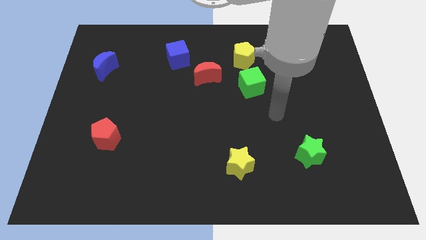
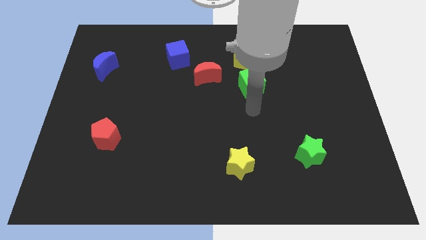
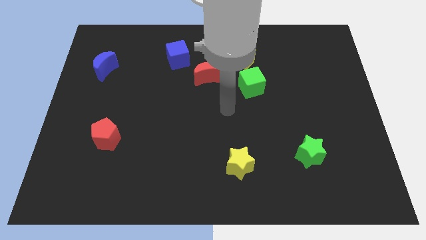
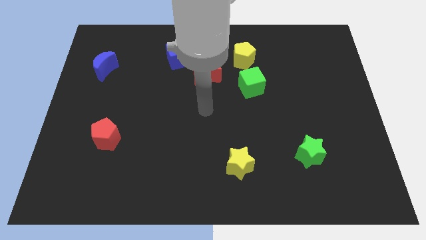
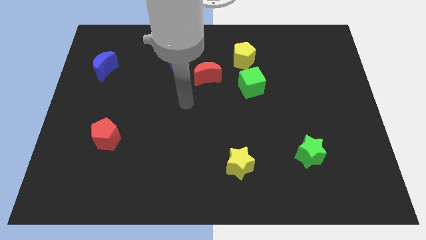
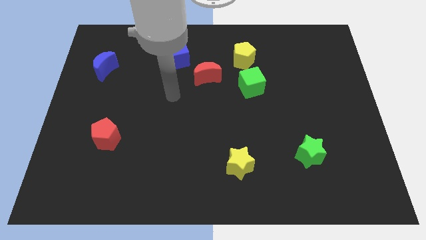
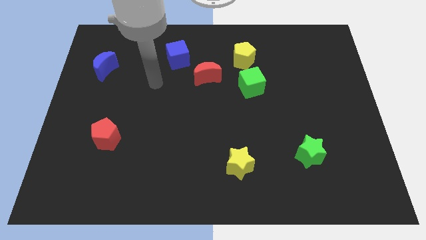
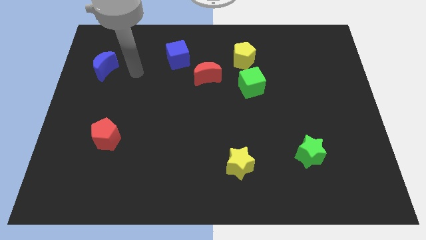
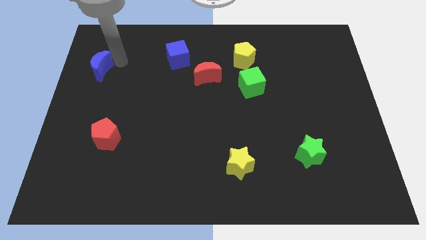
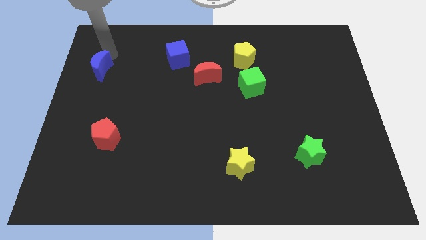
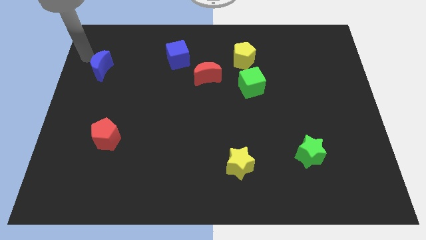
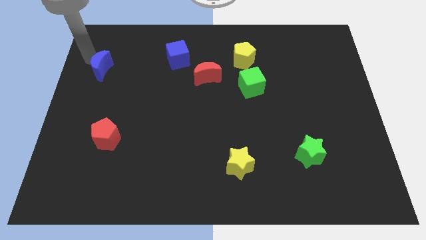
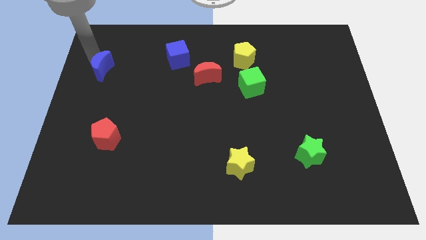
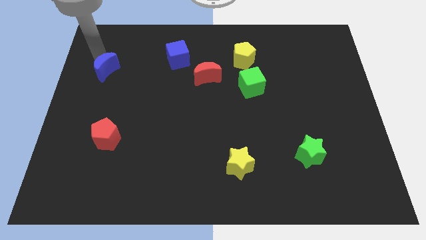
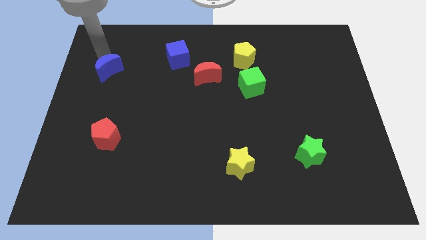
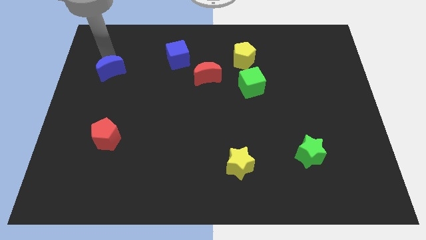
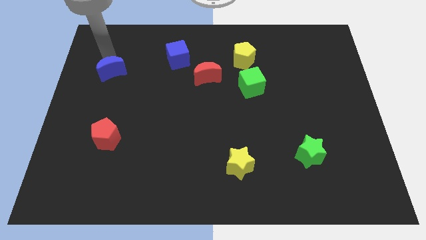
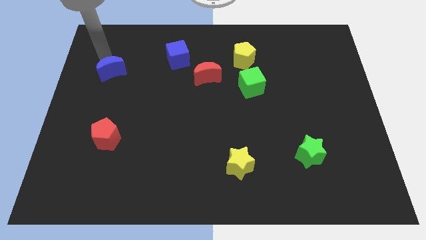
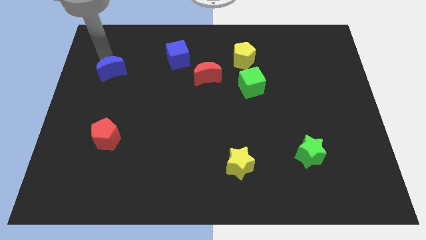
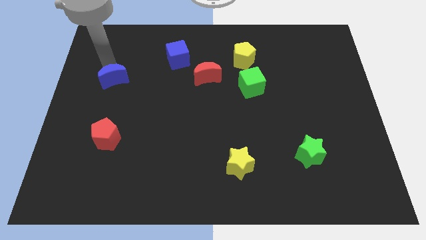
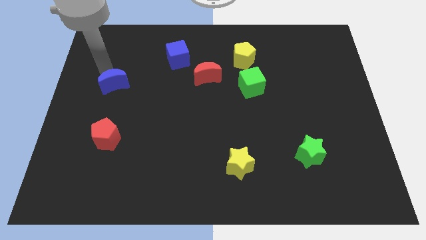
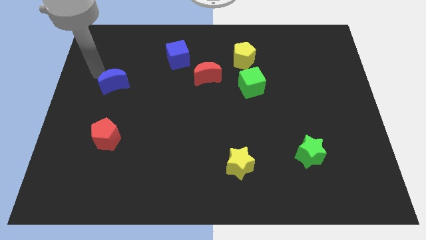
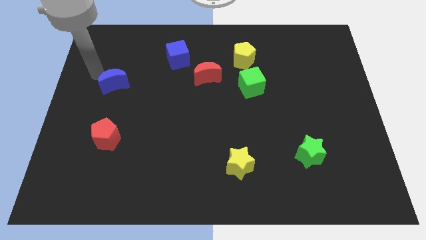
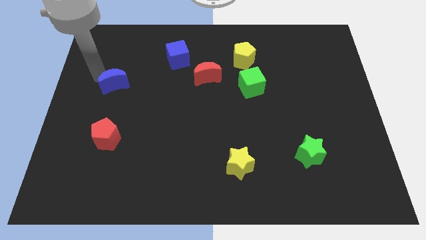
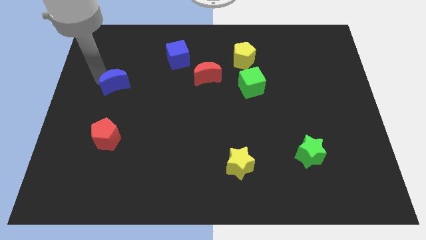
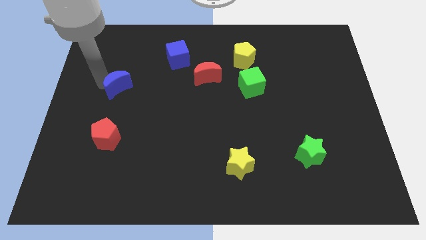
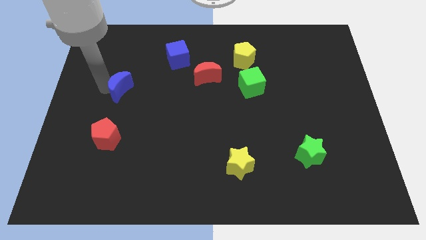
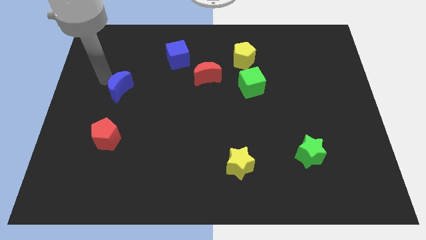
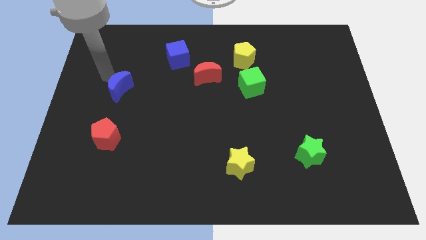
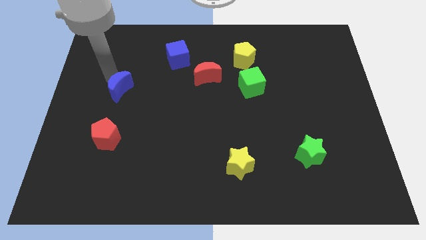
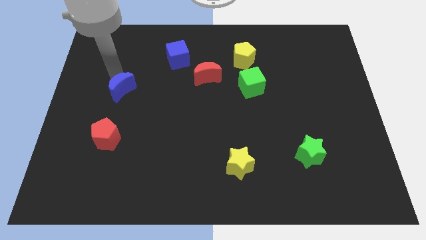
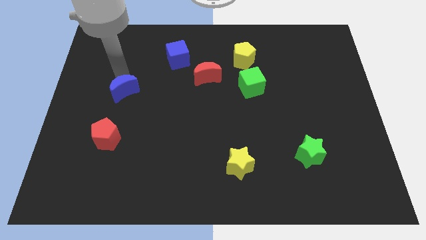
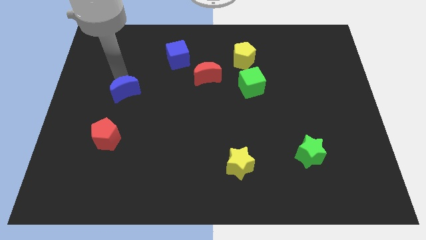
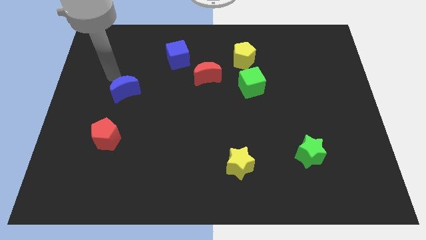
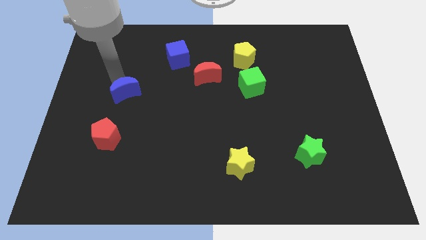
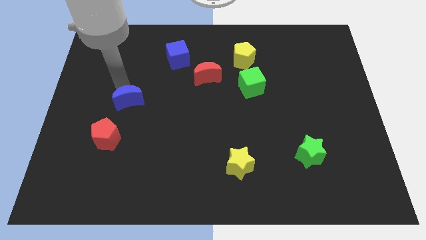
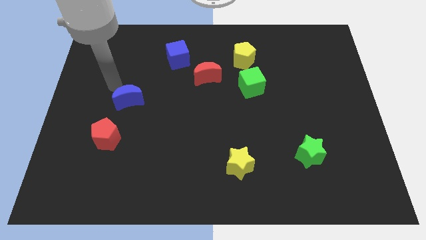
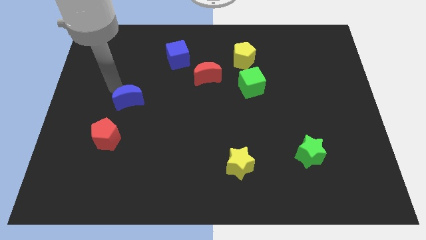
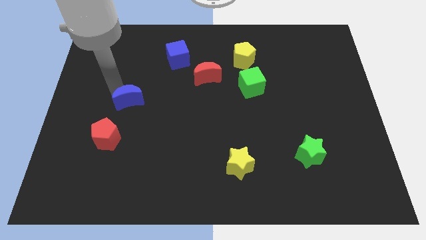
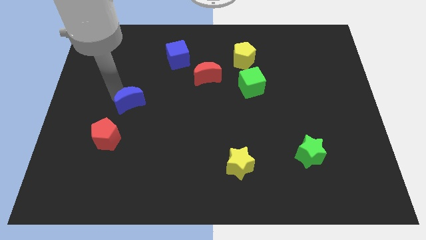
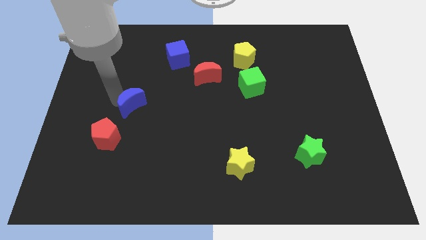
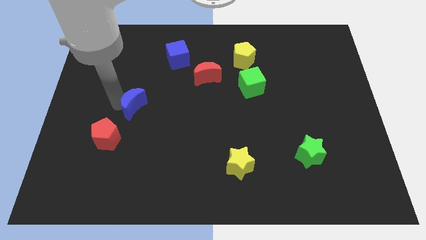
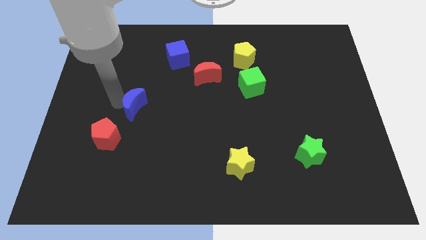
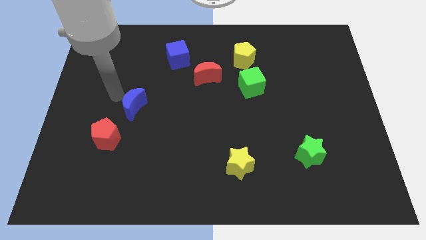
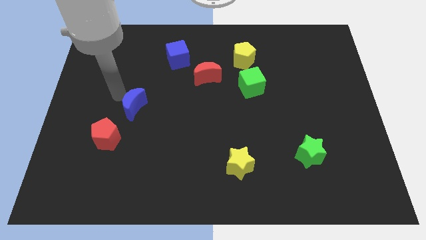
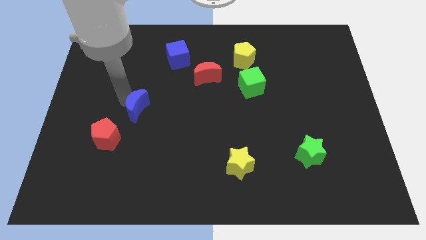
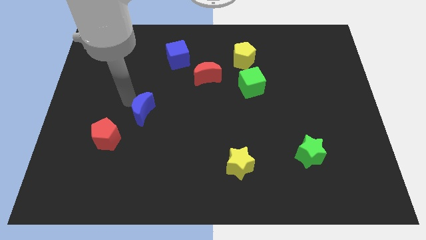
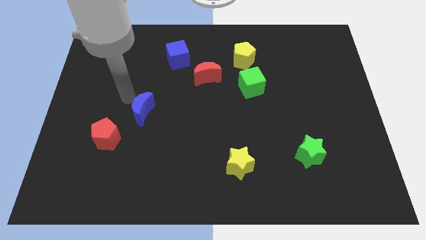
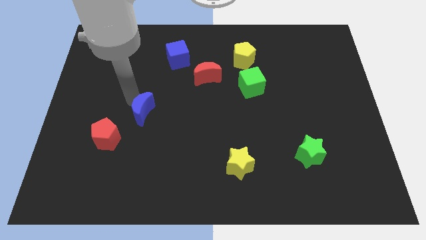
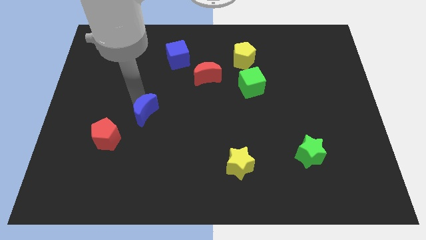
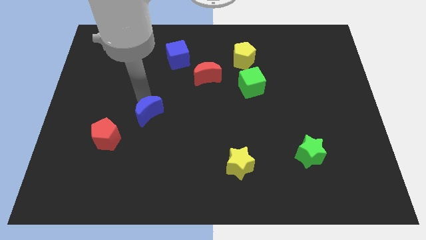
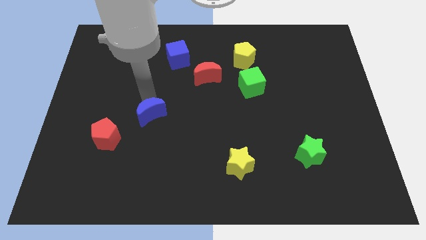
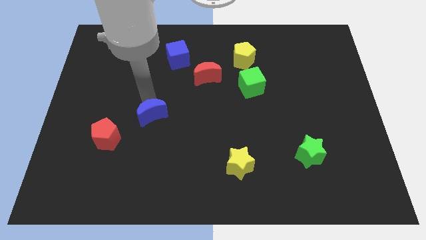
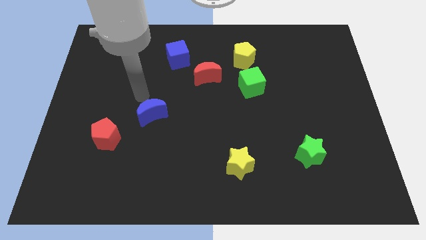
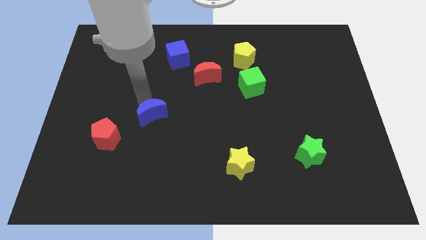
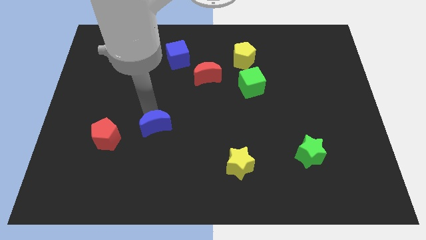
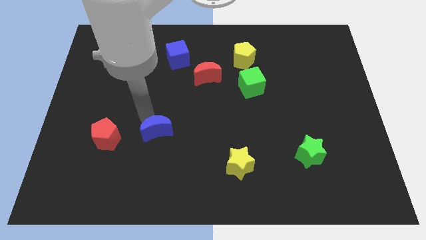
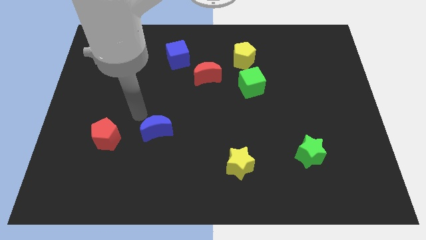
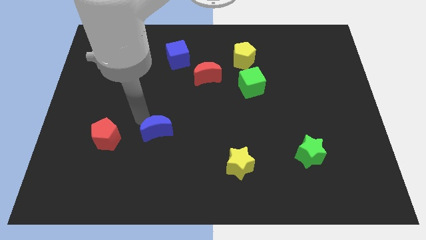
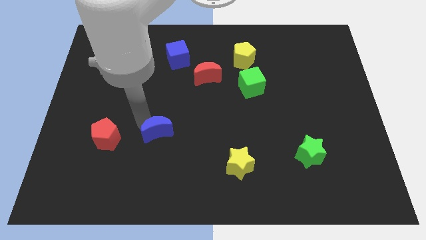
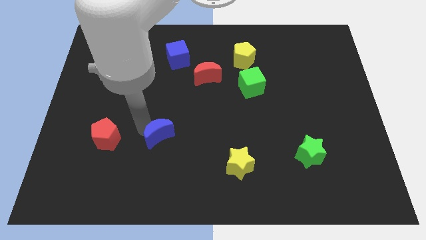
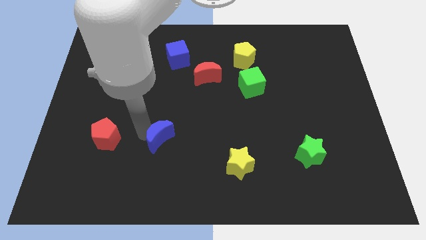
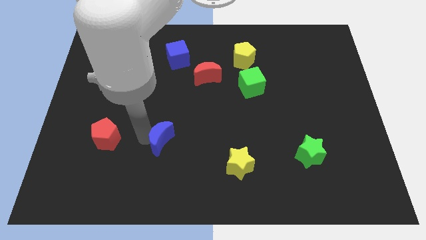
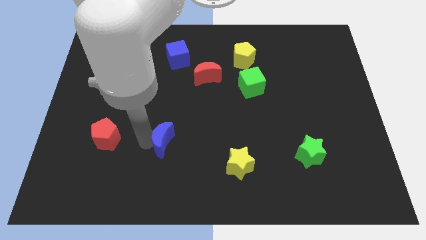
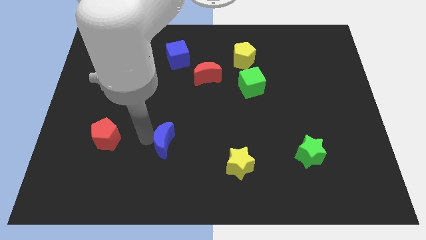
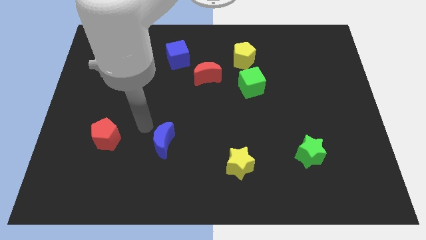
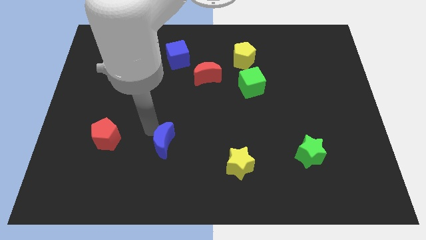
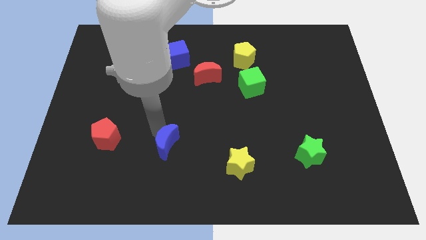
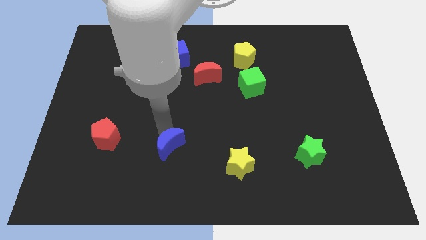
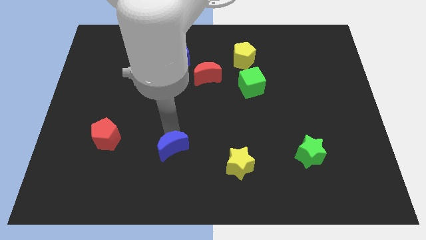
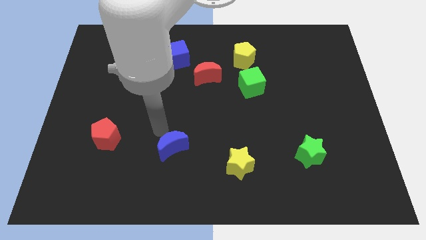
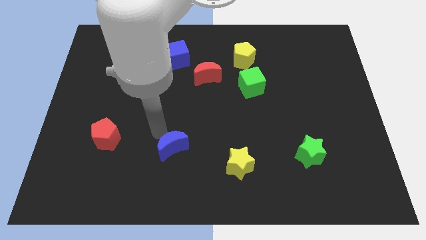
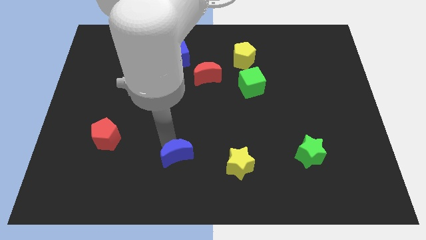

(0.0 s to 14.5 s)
put the blue moon just left of the yellow star
